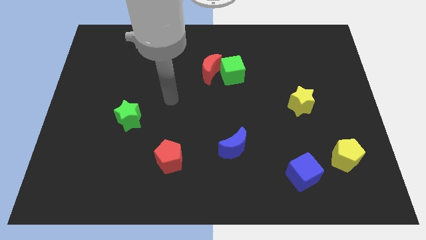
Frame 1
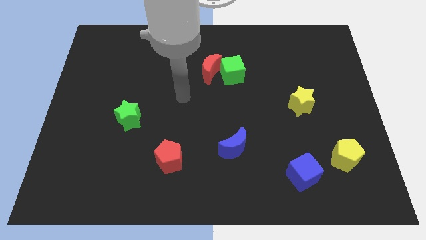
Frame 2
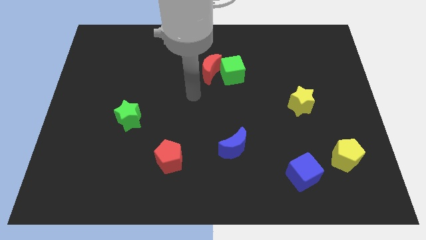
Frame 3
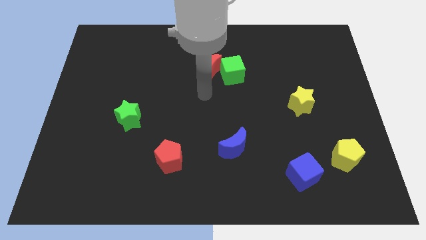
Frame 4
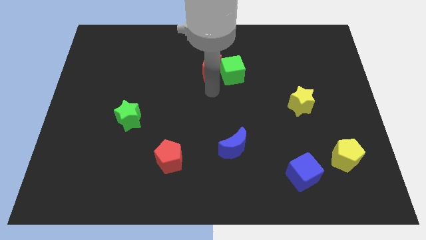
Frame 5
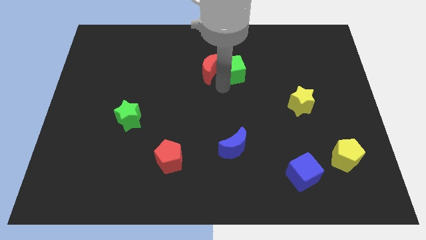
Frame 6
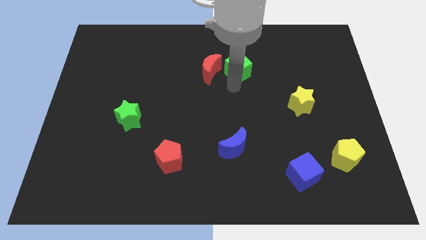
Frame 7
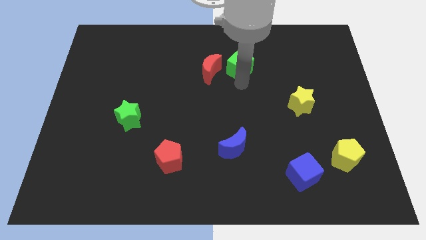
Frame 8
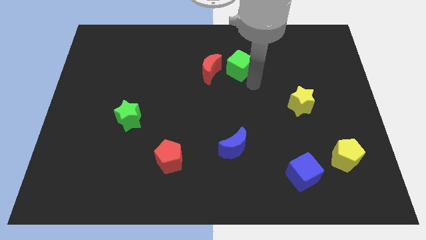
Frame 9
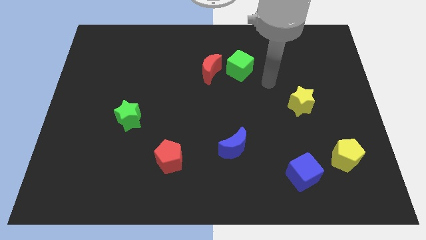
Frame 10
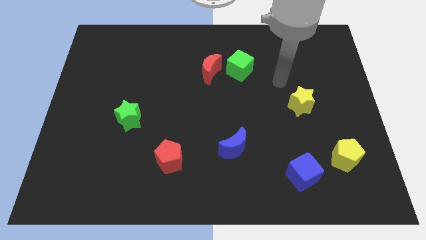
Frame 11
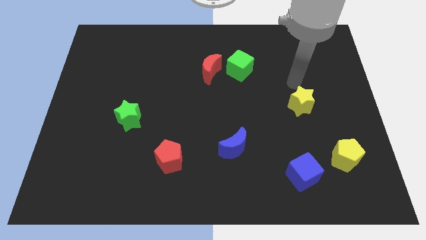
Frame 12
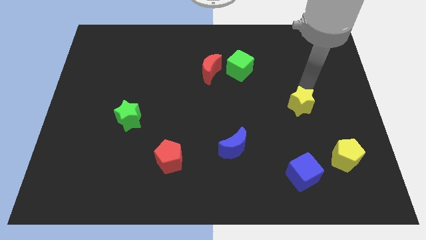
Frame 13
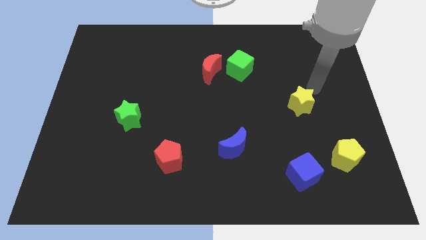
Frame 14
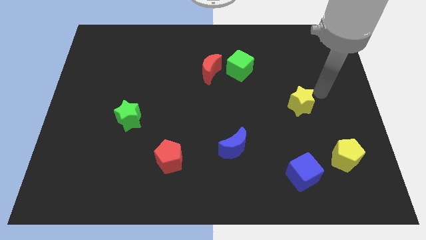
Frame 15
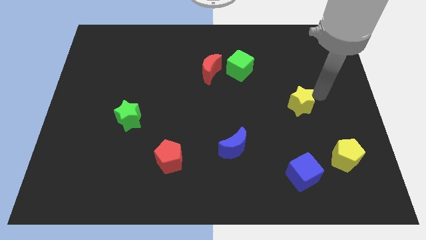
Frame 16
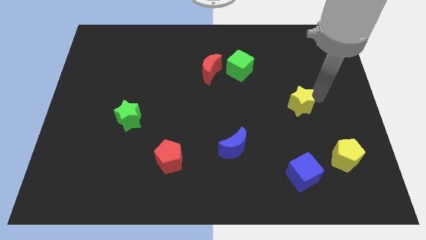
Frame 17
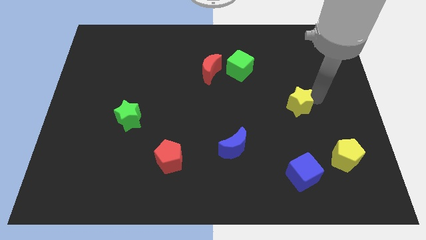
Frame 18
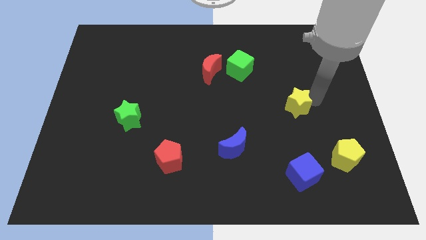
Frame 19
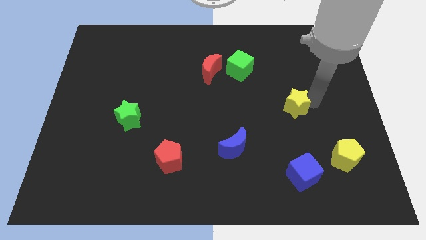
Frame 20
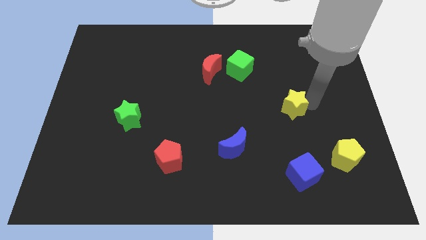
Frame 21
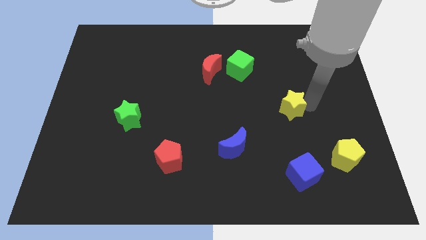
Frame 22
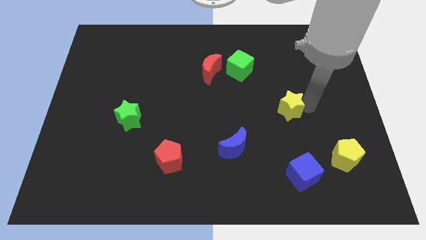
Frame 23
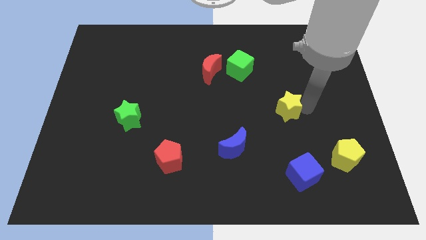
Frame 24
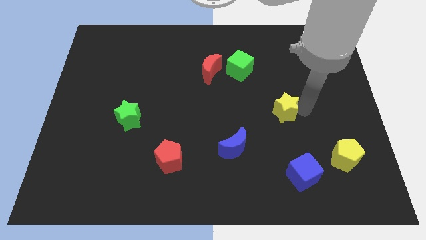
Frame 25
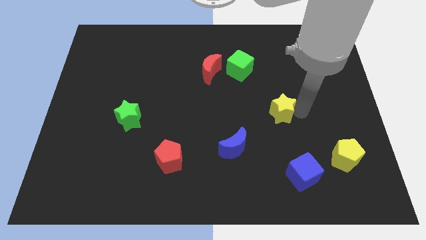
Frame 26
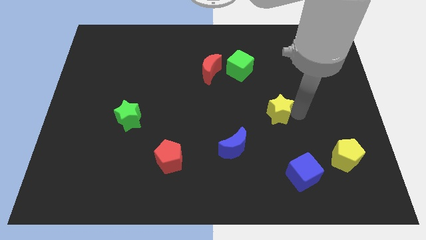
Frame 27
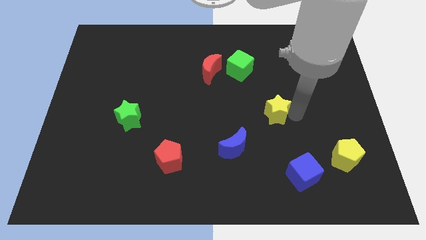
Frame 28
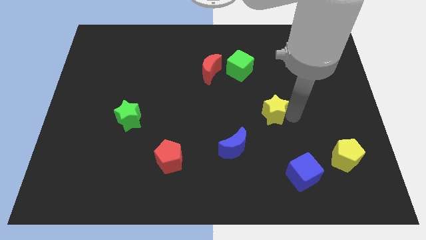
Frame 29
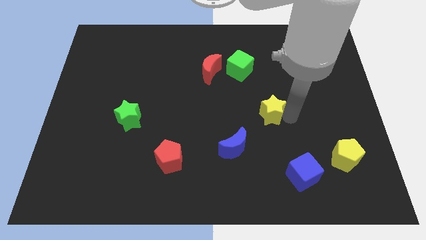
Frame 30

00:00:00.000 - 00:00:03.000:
move the yellow star somewhat to the left

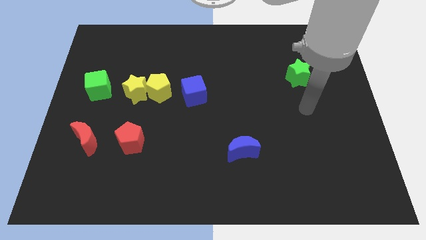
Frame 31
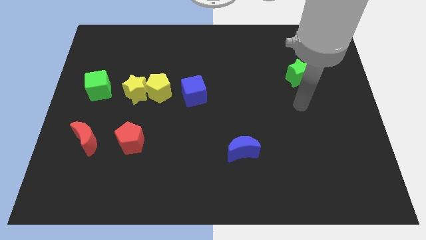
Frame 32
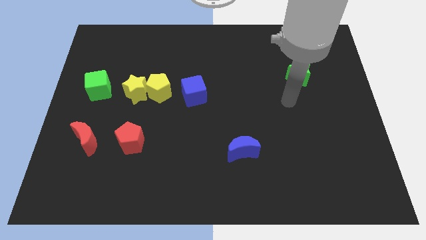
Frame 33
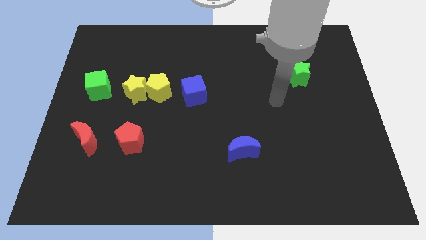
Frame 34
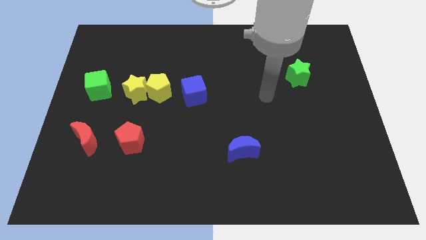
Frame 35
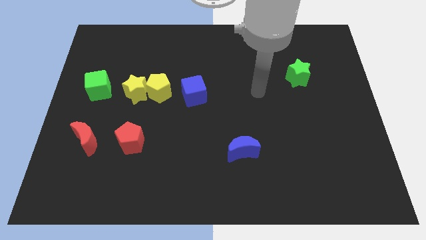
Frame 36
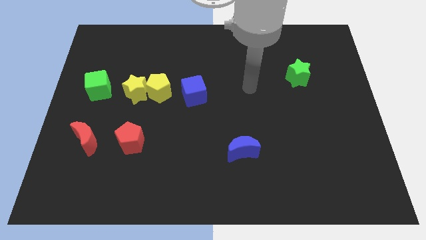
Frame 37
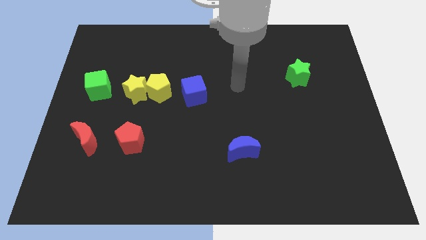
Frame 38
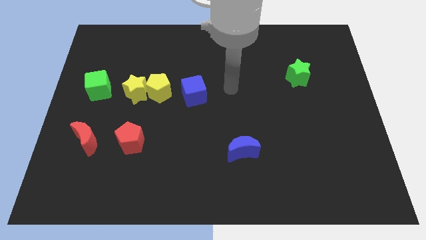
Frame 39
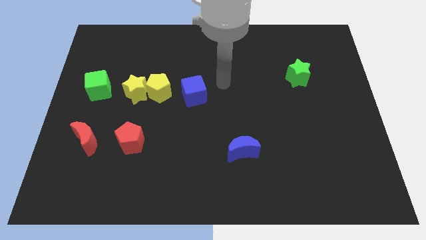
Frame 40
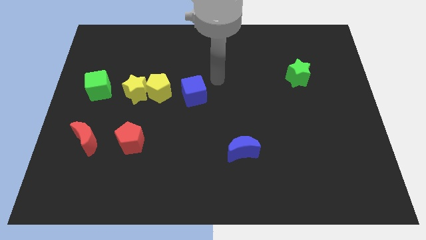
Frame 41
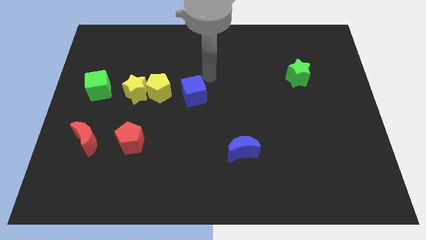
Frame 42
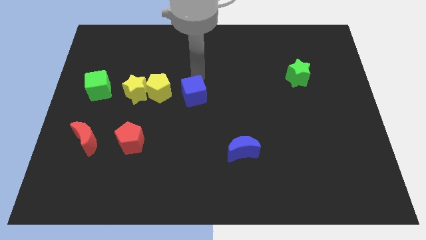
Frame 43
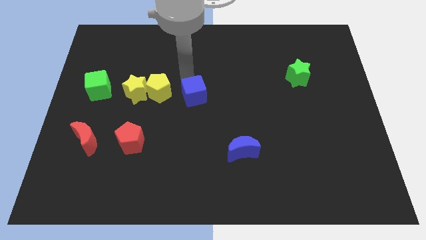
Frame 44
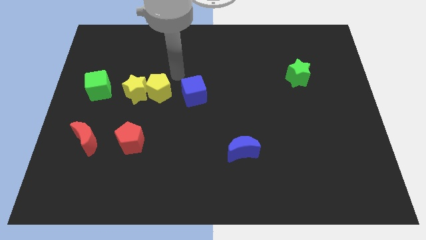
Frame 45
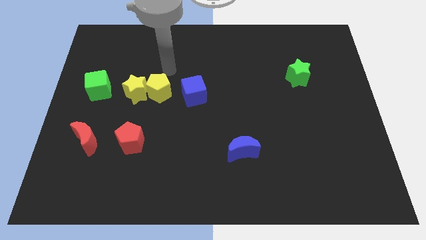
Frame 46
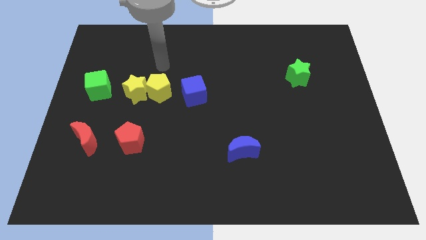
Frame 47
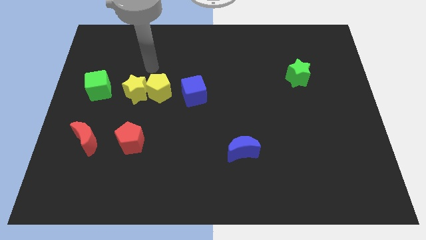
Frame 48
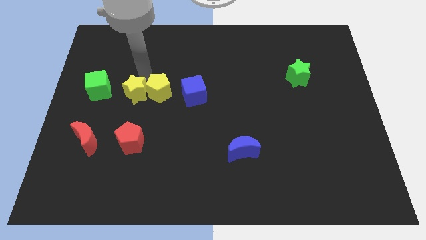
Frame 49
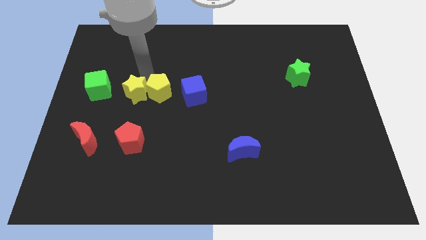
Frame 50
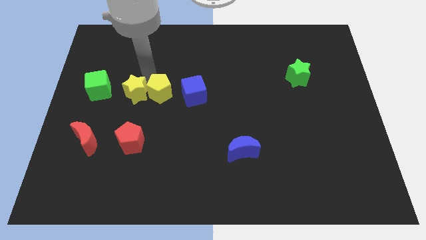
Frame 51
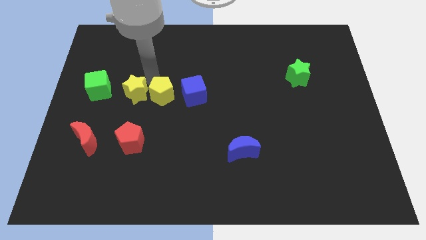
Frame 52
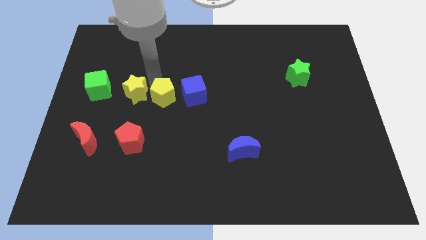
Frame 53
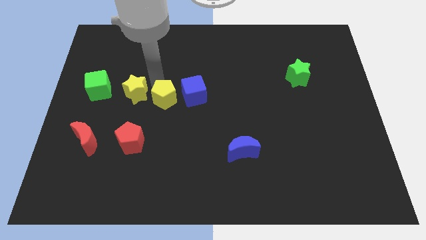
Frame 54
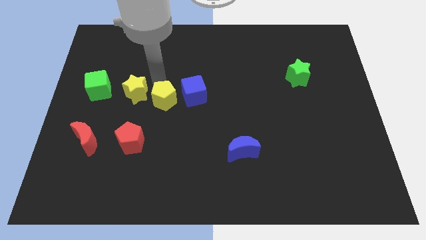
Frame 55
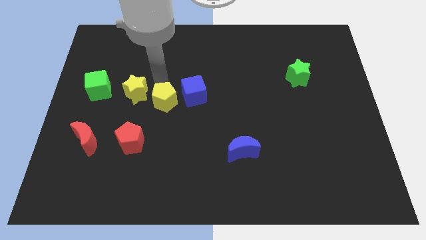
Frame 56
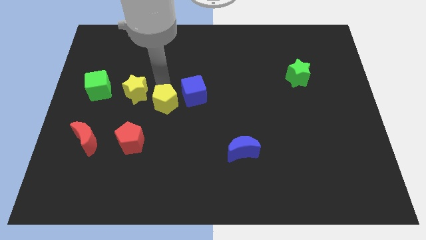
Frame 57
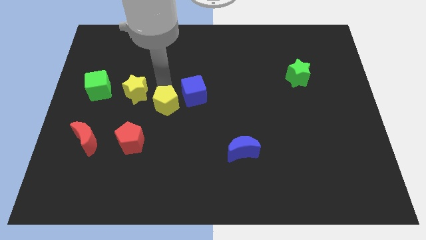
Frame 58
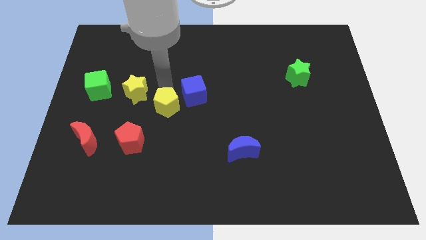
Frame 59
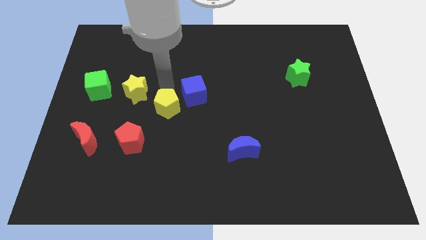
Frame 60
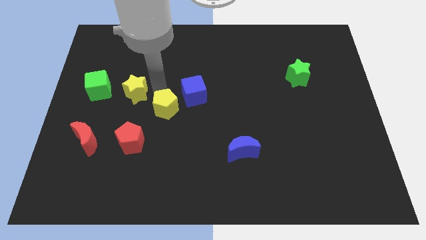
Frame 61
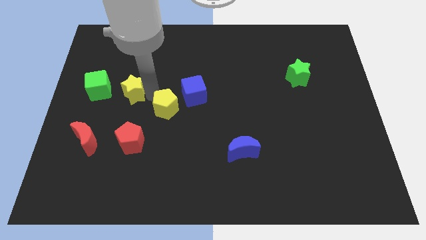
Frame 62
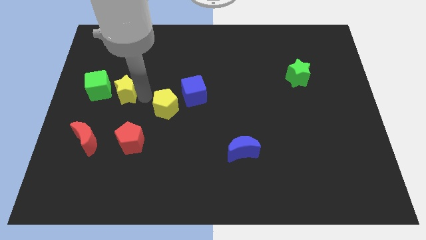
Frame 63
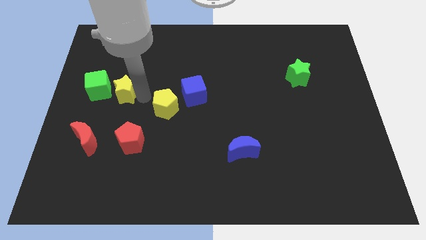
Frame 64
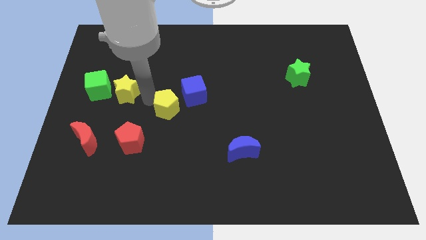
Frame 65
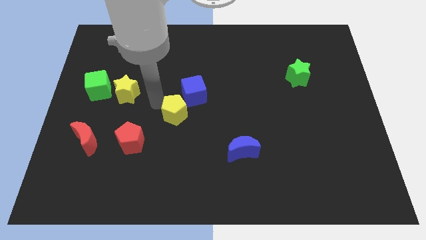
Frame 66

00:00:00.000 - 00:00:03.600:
move the yellow pentagon downwards and right slightly

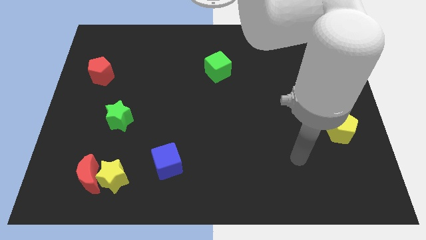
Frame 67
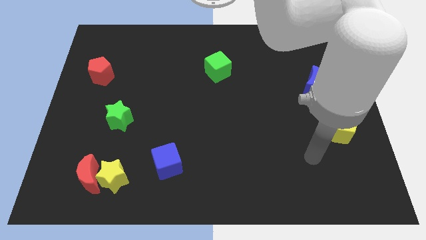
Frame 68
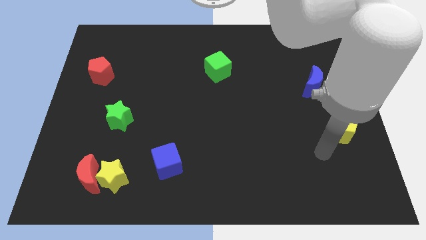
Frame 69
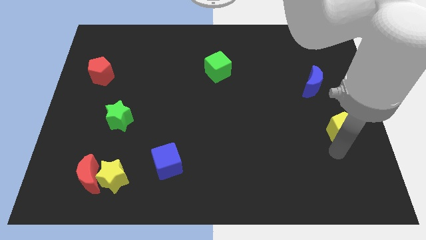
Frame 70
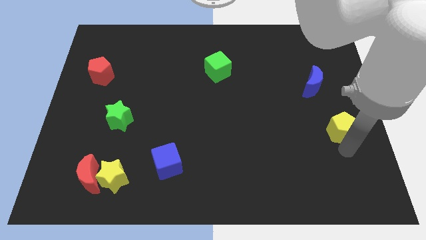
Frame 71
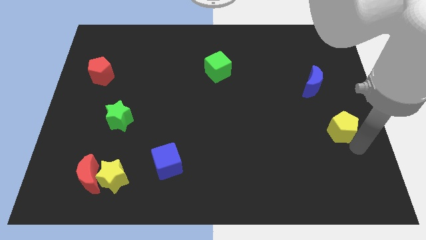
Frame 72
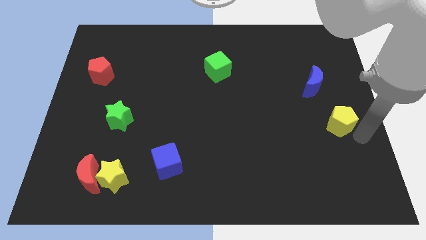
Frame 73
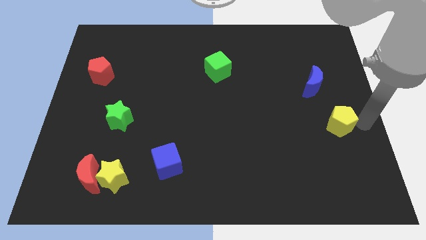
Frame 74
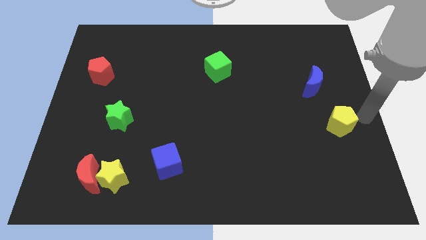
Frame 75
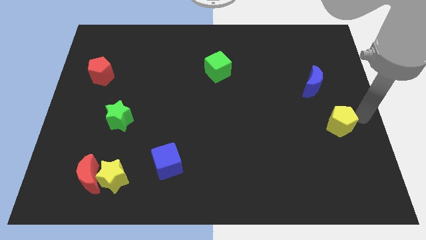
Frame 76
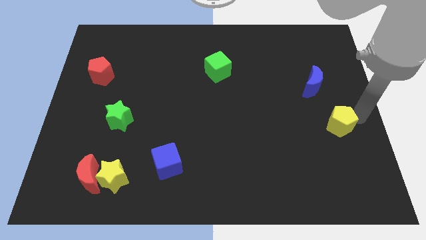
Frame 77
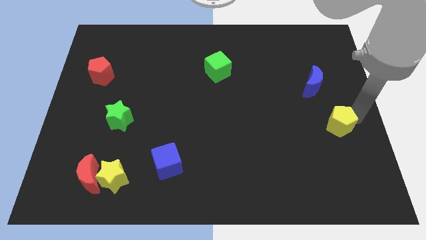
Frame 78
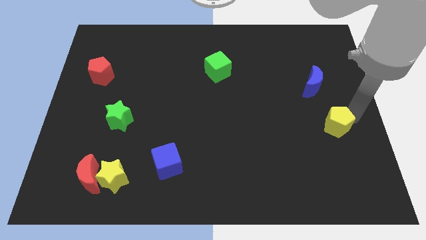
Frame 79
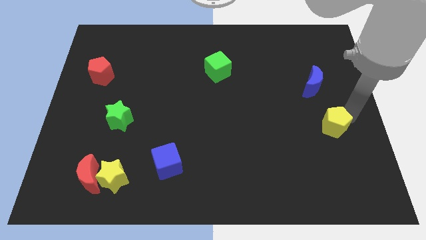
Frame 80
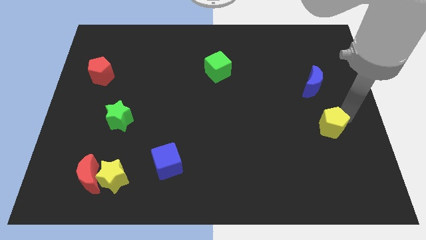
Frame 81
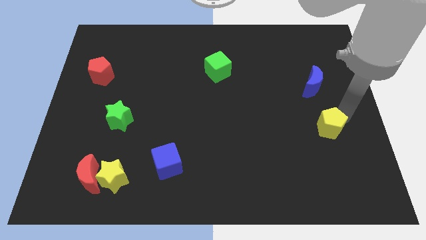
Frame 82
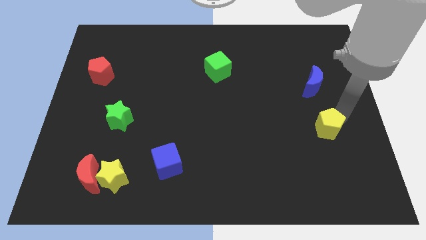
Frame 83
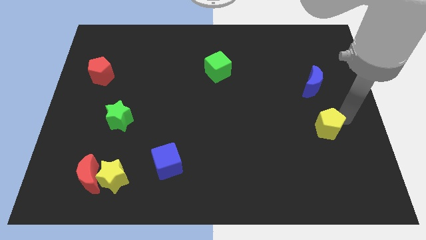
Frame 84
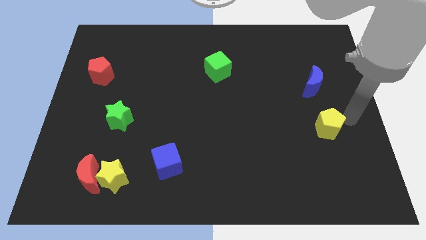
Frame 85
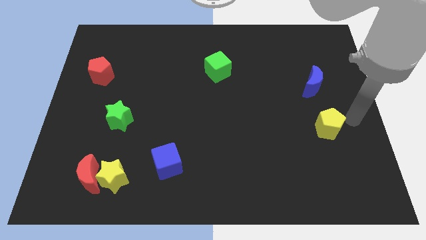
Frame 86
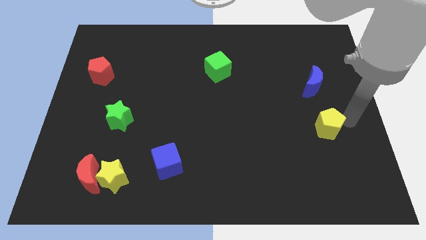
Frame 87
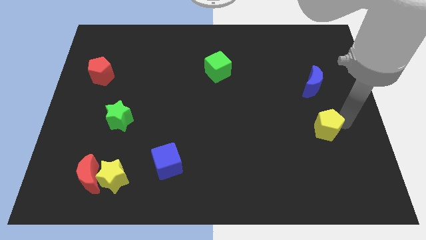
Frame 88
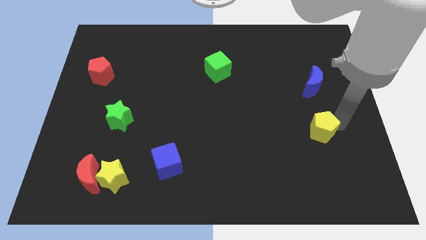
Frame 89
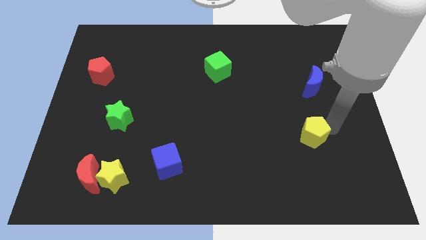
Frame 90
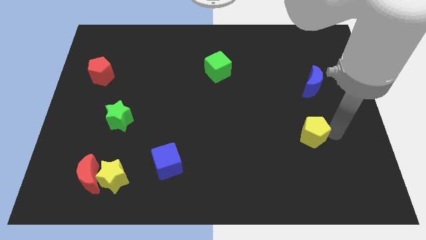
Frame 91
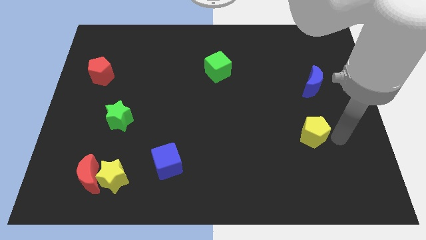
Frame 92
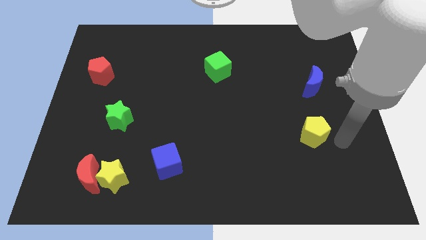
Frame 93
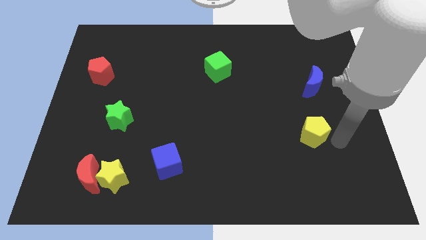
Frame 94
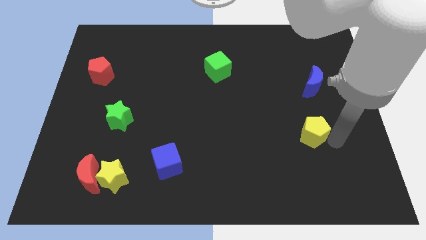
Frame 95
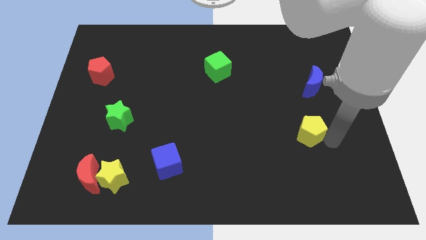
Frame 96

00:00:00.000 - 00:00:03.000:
move the yellow pentagon to the left a little
